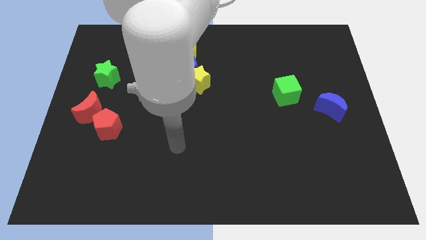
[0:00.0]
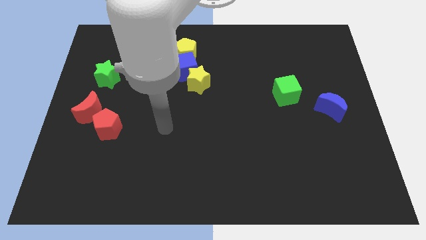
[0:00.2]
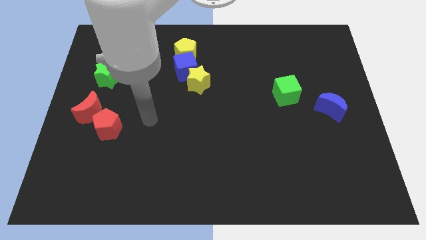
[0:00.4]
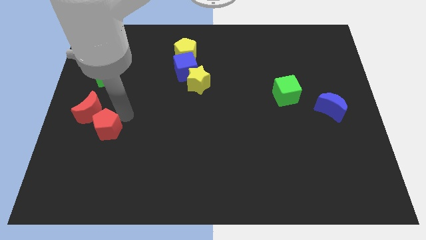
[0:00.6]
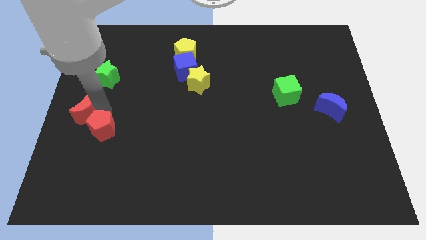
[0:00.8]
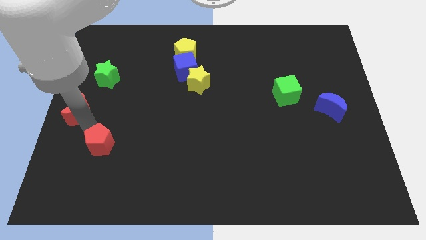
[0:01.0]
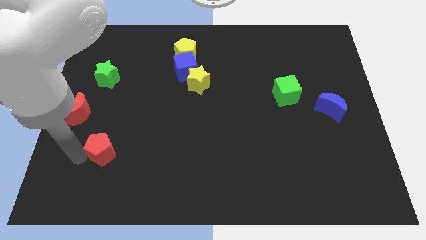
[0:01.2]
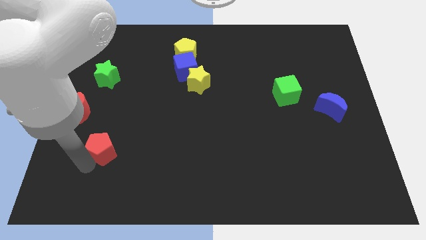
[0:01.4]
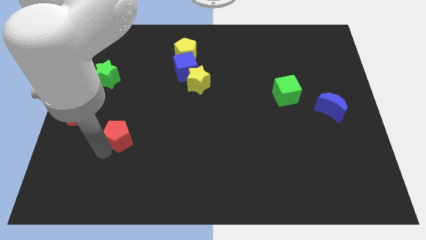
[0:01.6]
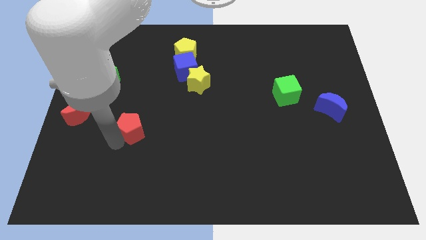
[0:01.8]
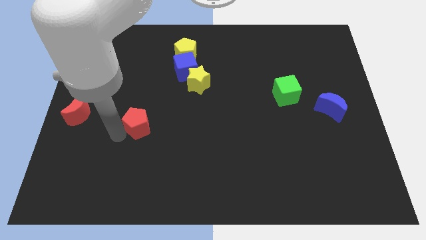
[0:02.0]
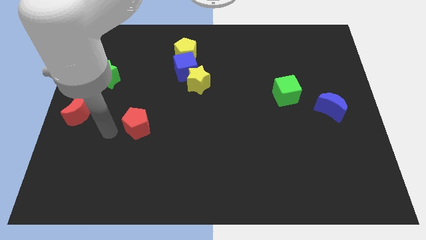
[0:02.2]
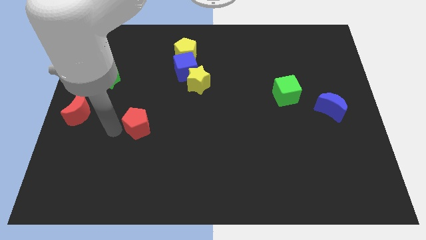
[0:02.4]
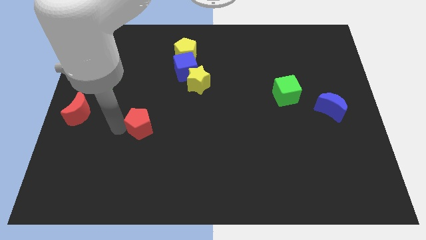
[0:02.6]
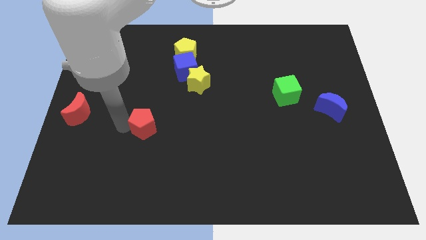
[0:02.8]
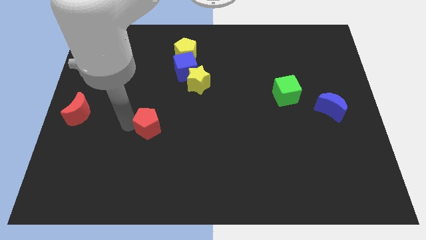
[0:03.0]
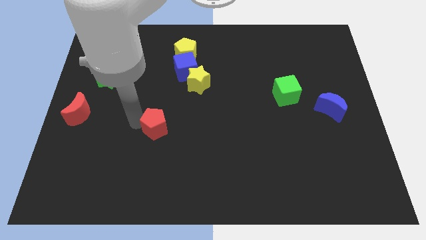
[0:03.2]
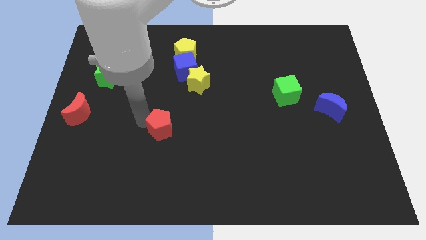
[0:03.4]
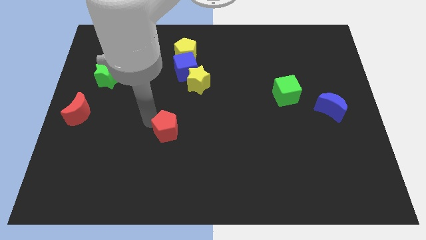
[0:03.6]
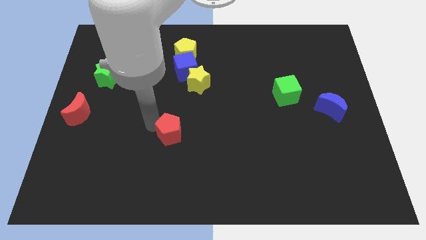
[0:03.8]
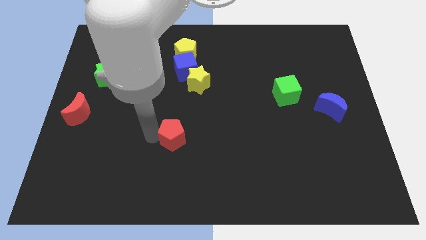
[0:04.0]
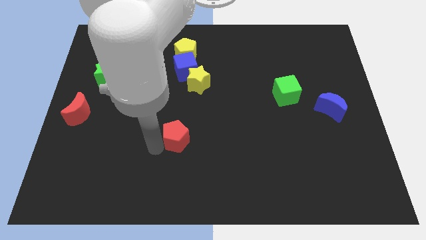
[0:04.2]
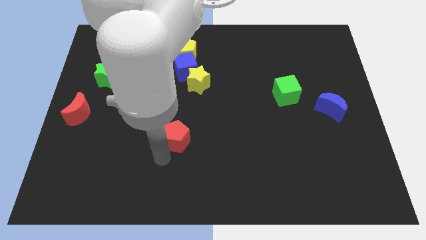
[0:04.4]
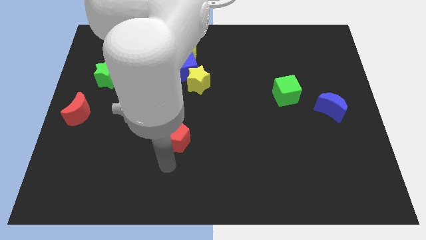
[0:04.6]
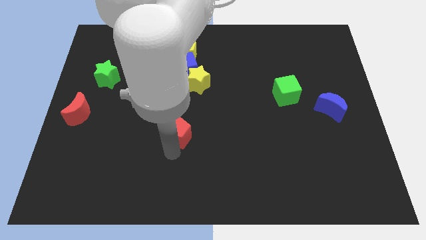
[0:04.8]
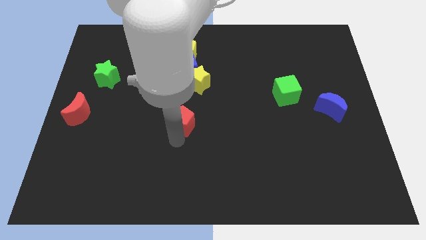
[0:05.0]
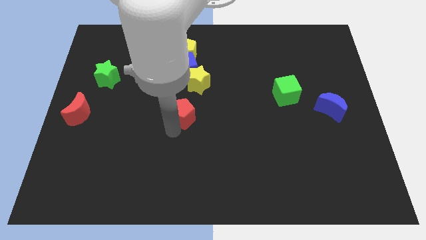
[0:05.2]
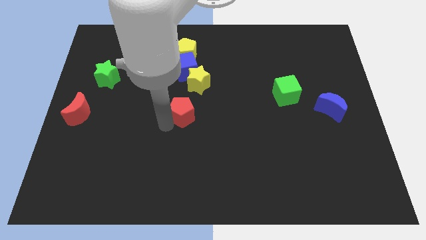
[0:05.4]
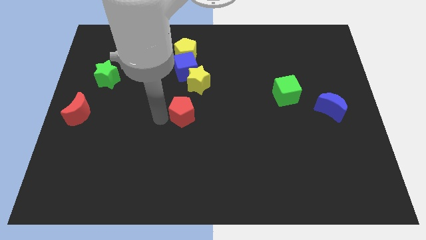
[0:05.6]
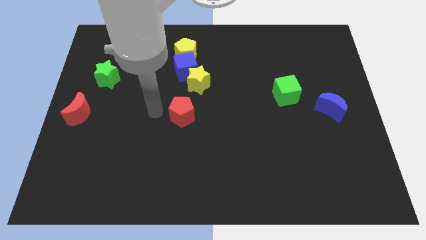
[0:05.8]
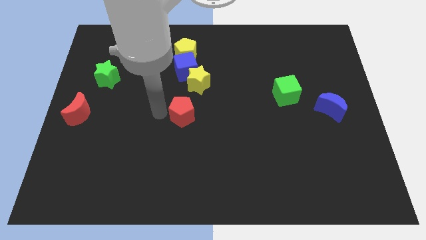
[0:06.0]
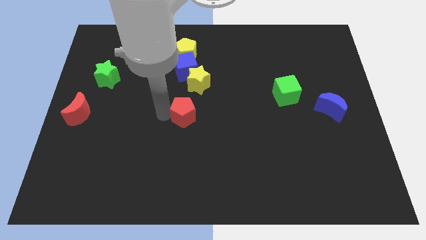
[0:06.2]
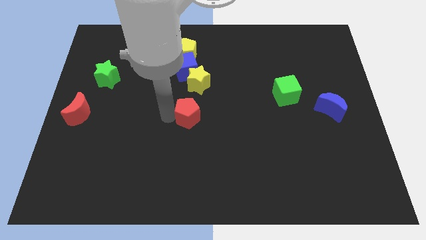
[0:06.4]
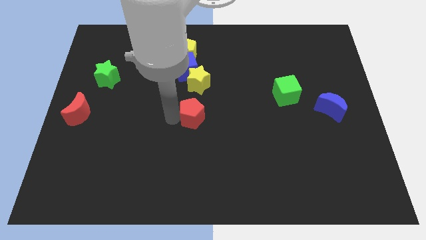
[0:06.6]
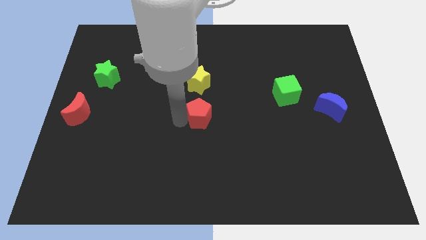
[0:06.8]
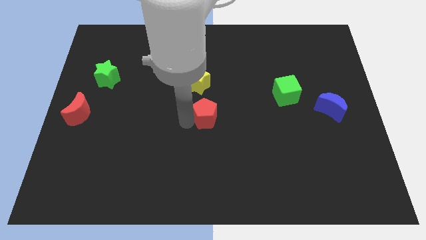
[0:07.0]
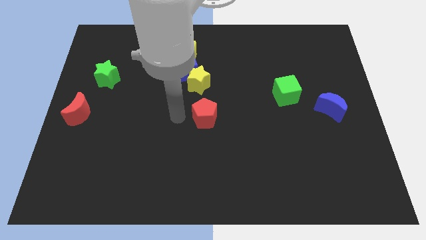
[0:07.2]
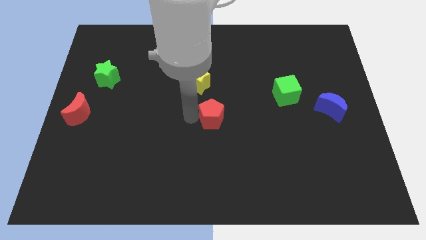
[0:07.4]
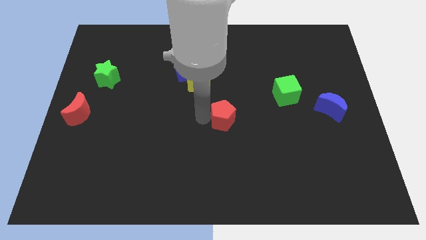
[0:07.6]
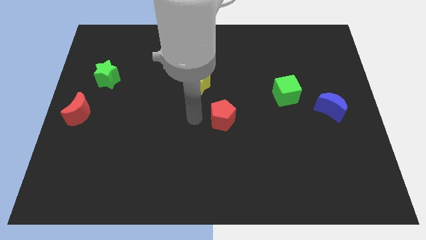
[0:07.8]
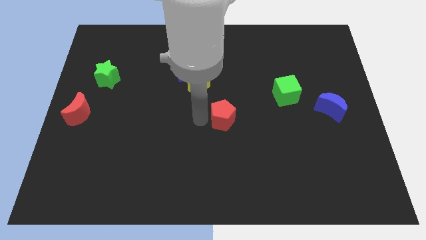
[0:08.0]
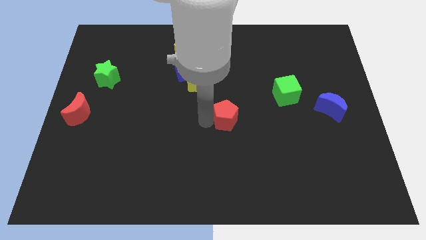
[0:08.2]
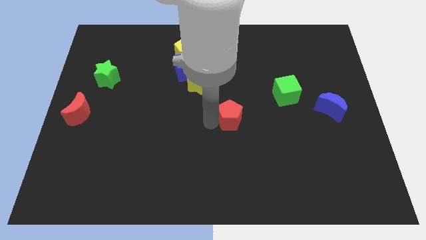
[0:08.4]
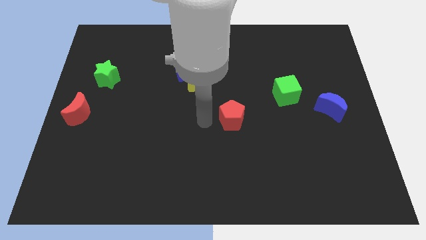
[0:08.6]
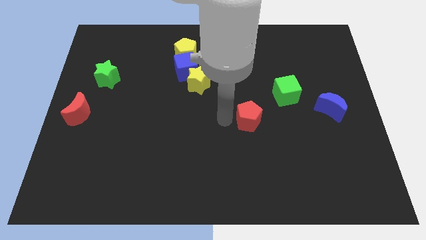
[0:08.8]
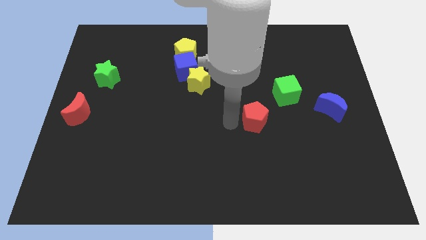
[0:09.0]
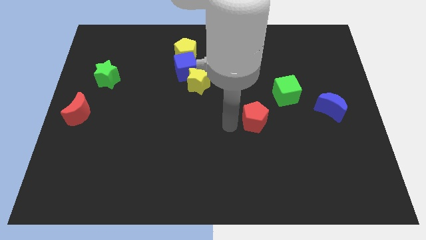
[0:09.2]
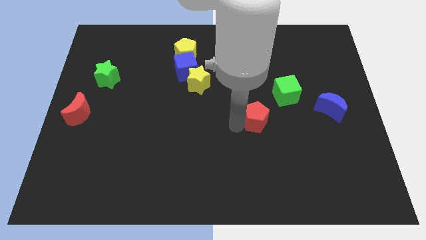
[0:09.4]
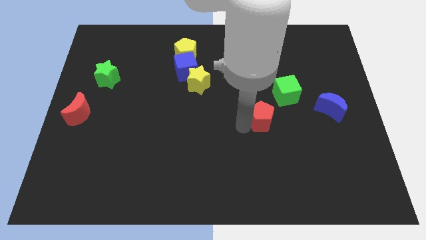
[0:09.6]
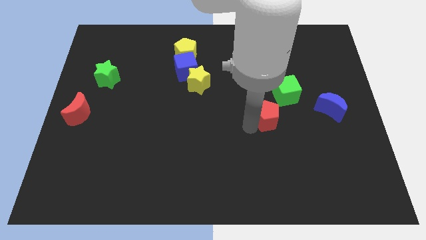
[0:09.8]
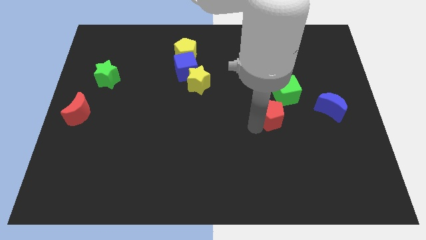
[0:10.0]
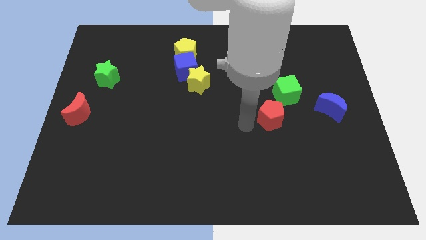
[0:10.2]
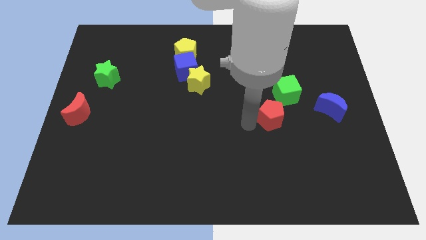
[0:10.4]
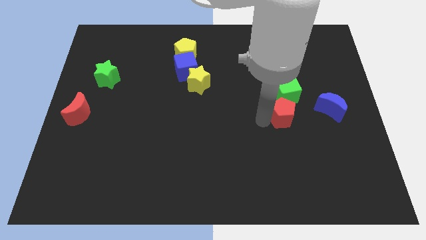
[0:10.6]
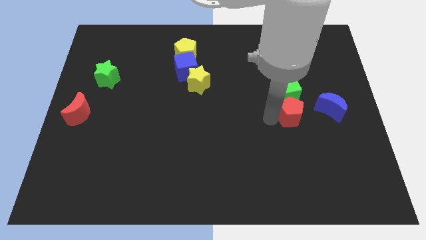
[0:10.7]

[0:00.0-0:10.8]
slide the red pentagon to the bottom right of the green cube

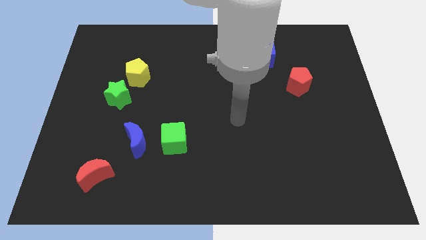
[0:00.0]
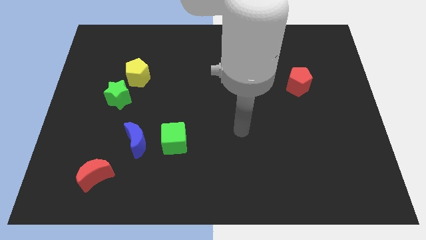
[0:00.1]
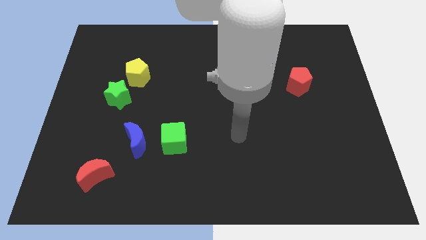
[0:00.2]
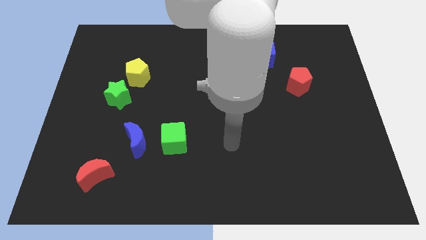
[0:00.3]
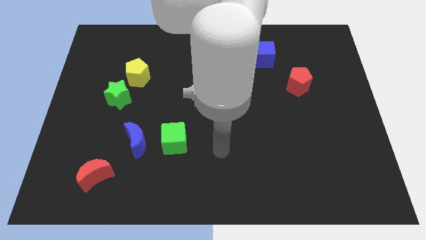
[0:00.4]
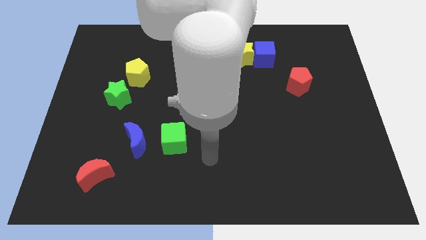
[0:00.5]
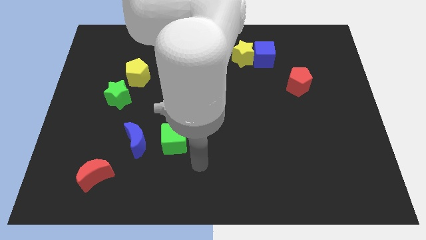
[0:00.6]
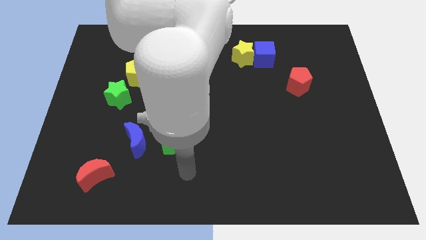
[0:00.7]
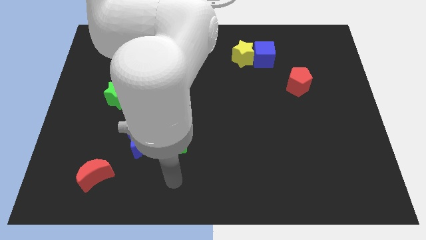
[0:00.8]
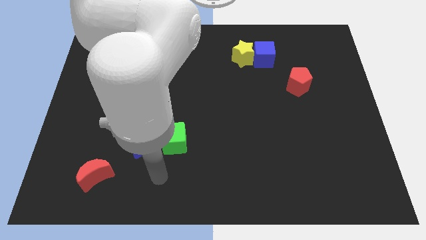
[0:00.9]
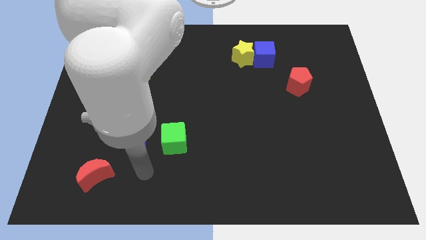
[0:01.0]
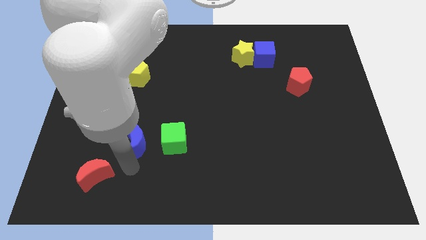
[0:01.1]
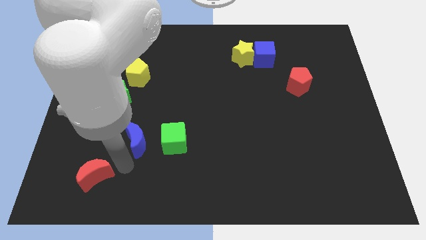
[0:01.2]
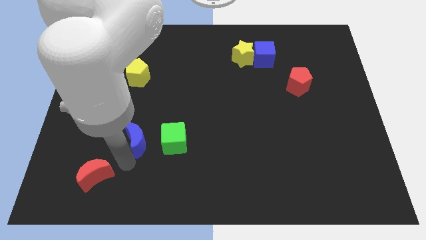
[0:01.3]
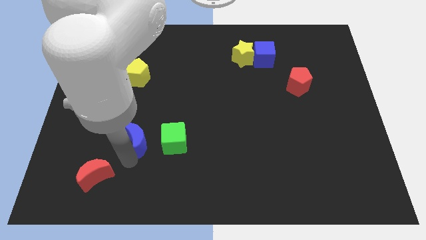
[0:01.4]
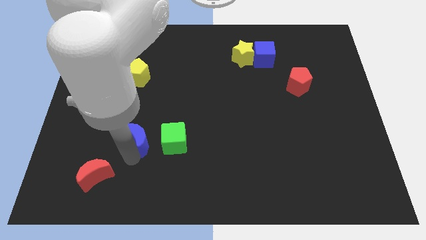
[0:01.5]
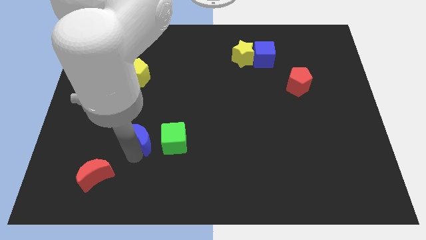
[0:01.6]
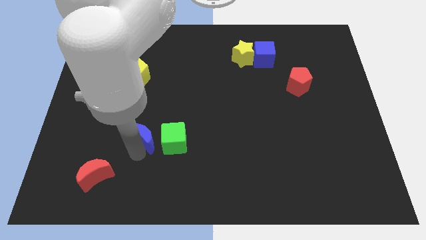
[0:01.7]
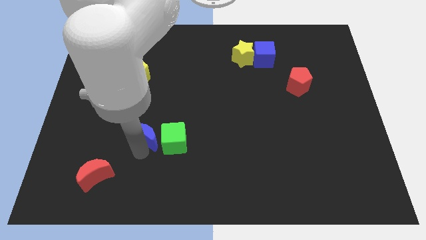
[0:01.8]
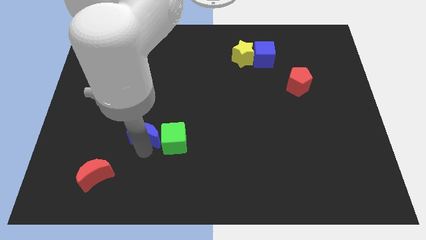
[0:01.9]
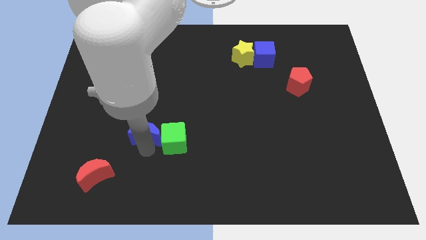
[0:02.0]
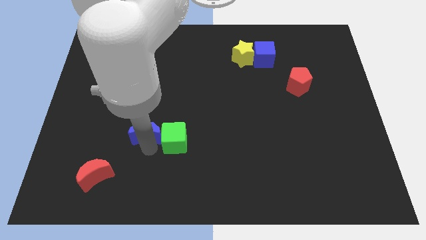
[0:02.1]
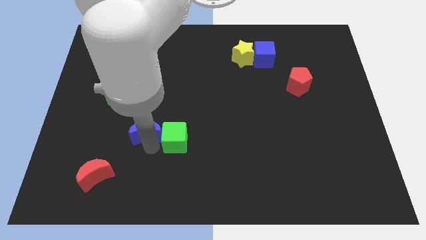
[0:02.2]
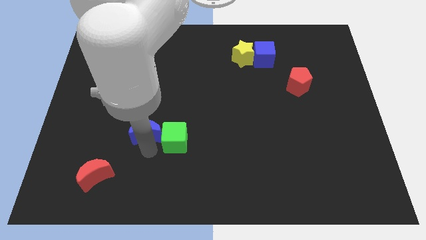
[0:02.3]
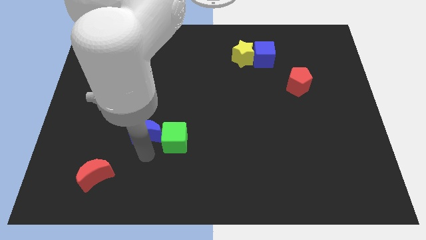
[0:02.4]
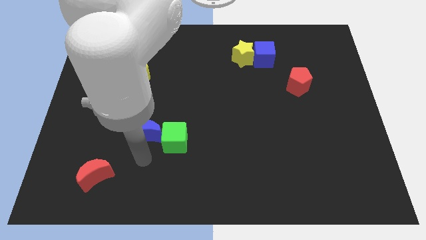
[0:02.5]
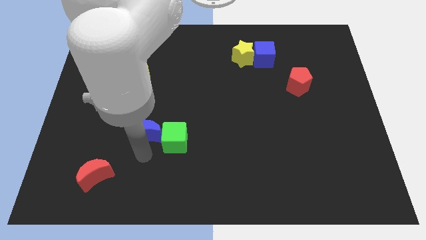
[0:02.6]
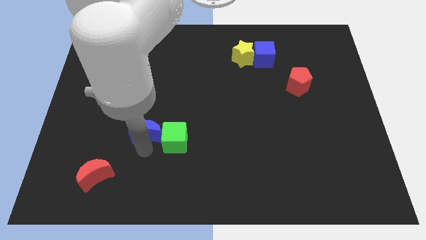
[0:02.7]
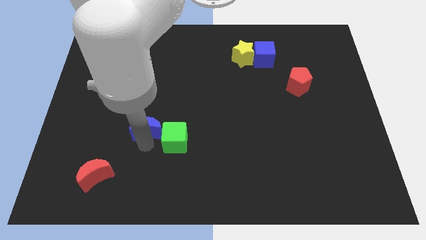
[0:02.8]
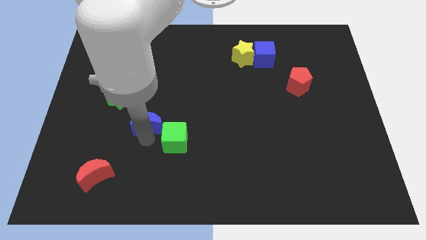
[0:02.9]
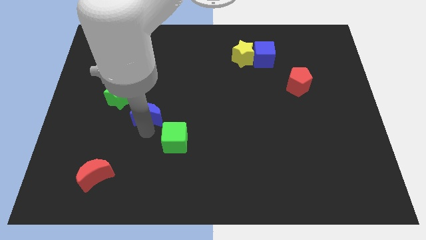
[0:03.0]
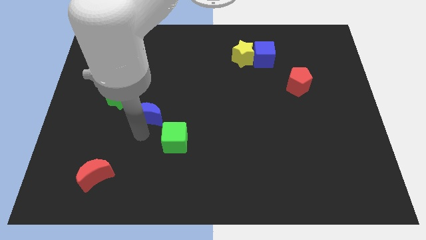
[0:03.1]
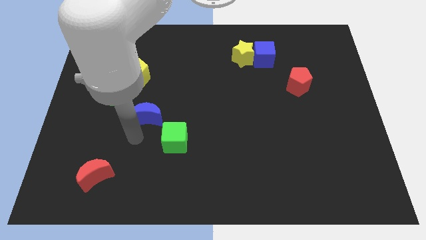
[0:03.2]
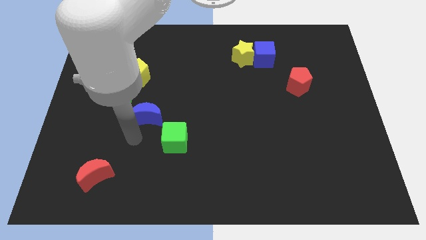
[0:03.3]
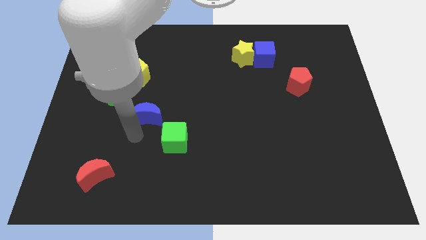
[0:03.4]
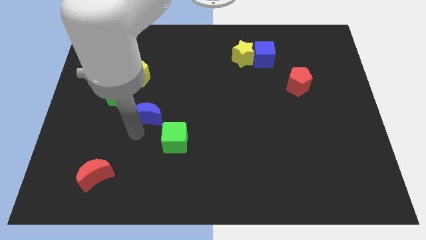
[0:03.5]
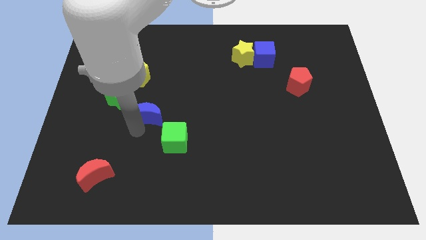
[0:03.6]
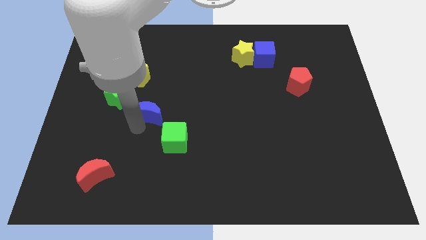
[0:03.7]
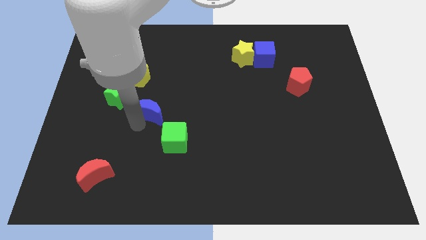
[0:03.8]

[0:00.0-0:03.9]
push the blue moon to the right side of the green star
